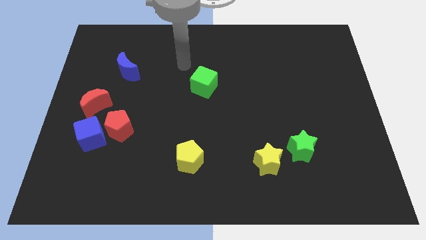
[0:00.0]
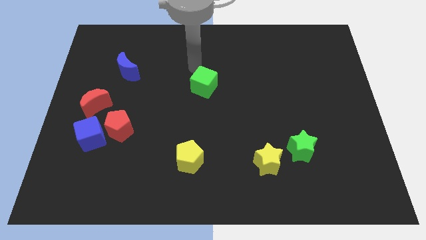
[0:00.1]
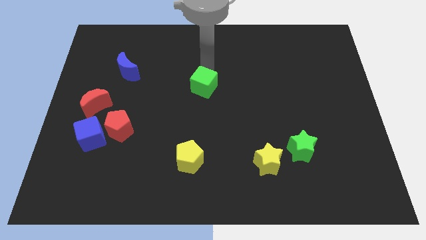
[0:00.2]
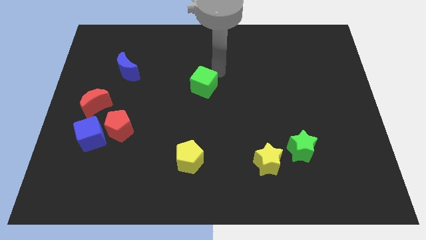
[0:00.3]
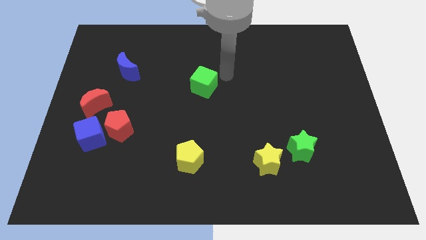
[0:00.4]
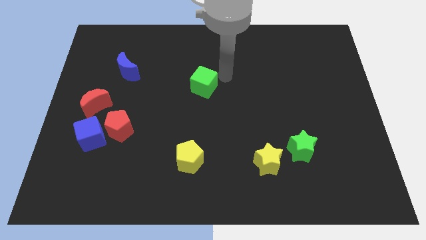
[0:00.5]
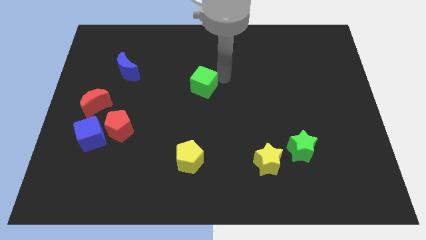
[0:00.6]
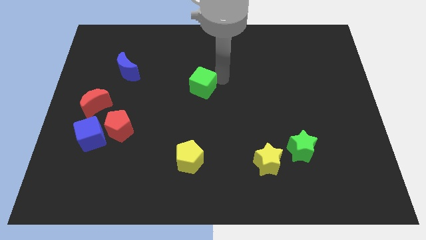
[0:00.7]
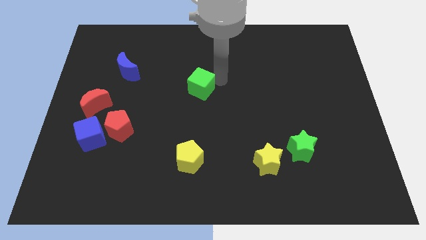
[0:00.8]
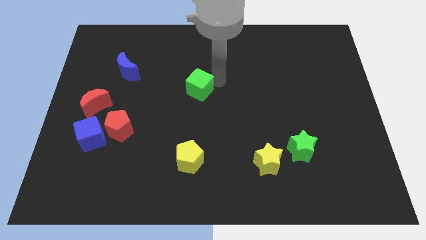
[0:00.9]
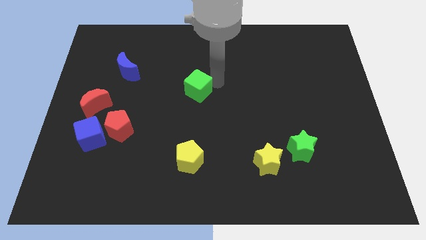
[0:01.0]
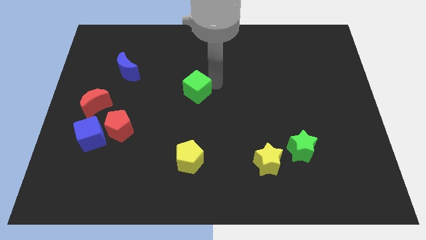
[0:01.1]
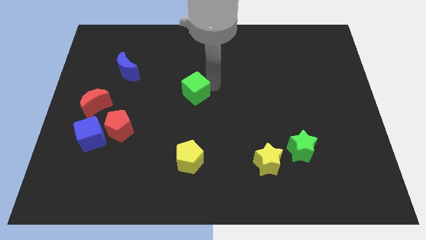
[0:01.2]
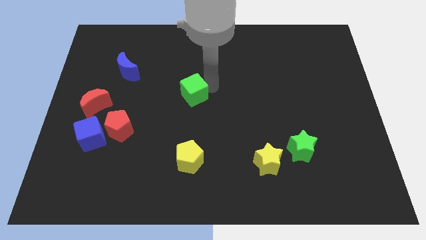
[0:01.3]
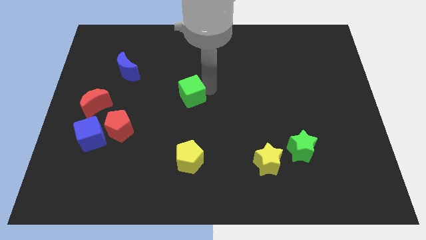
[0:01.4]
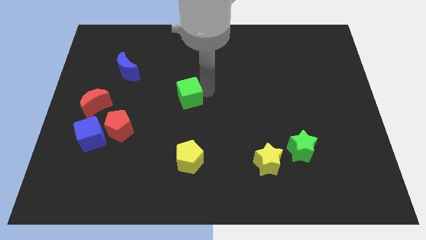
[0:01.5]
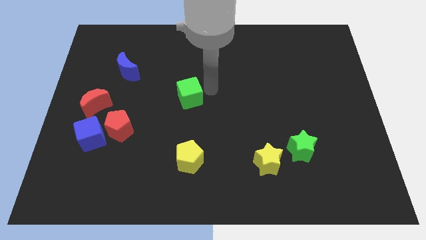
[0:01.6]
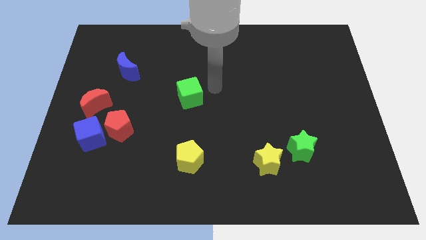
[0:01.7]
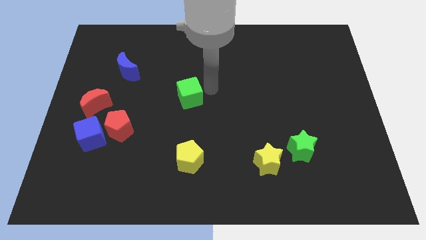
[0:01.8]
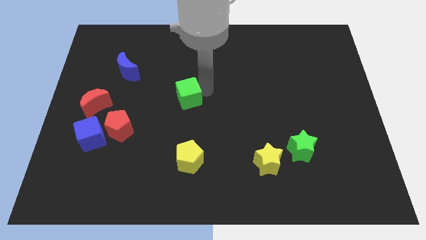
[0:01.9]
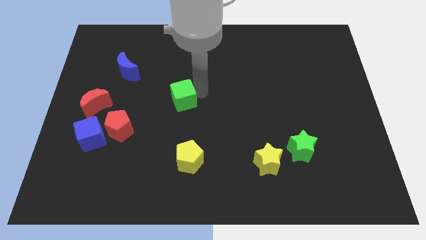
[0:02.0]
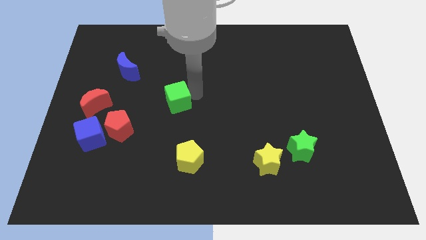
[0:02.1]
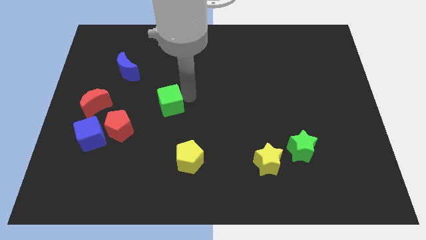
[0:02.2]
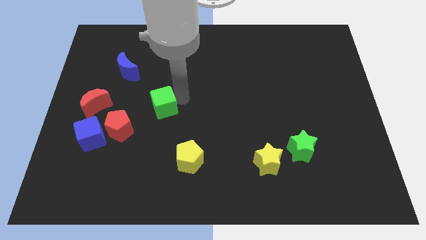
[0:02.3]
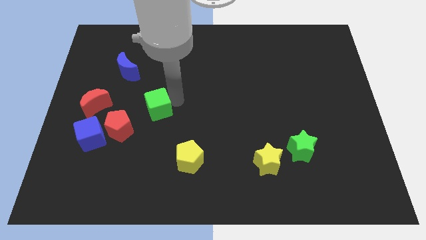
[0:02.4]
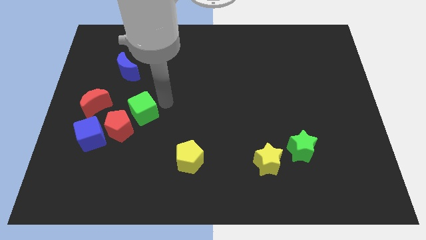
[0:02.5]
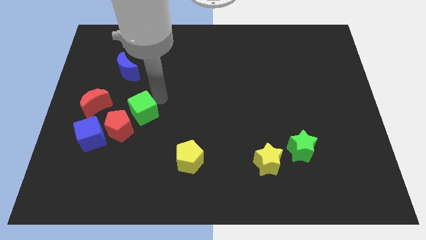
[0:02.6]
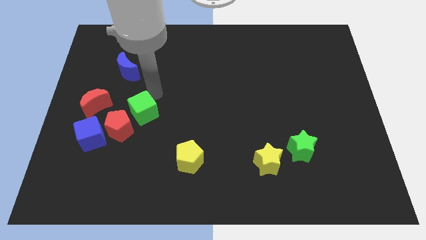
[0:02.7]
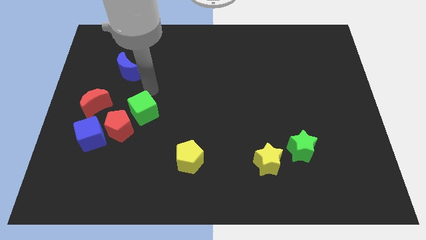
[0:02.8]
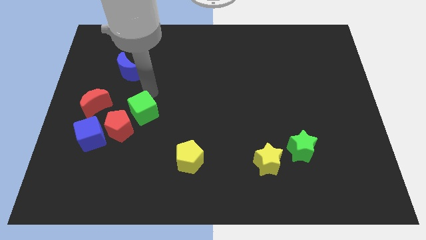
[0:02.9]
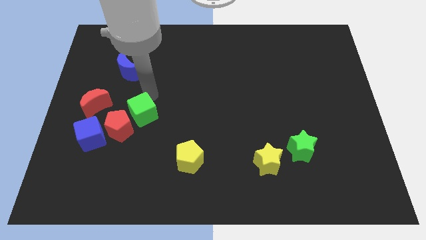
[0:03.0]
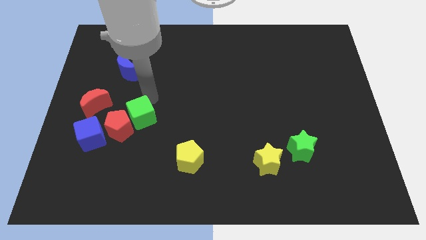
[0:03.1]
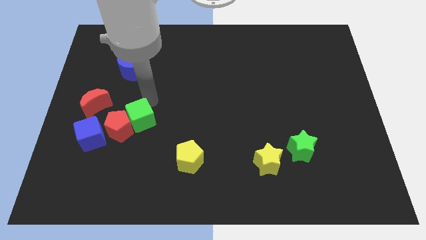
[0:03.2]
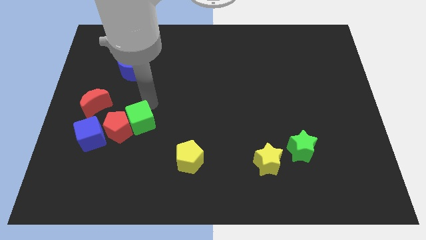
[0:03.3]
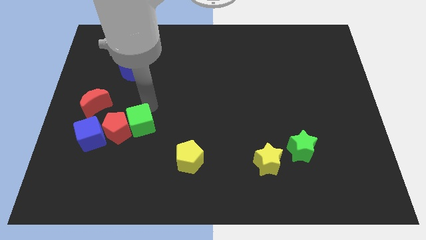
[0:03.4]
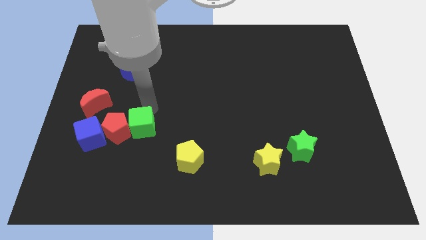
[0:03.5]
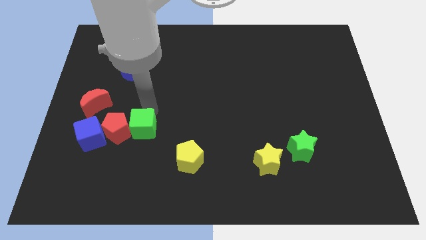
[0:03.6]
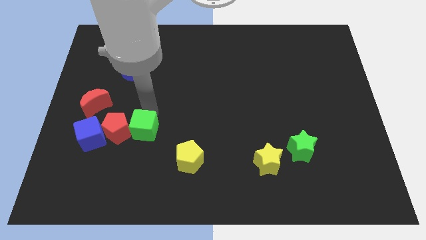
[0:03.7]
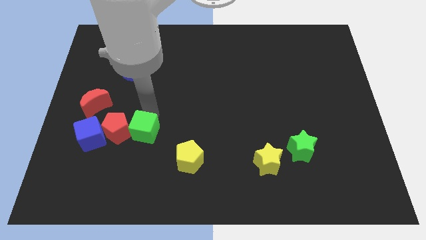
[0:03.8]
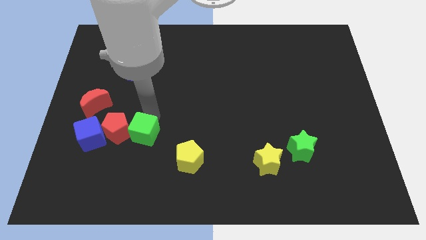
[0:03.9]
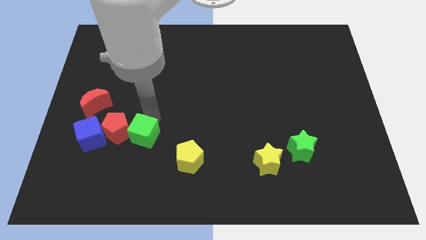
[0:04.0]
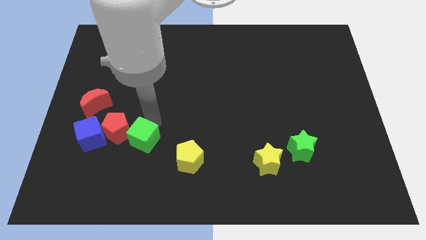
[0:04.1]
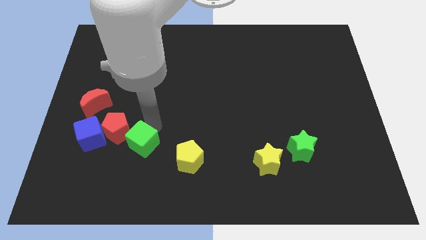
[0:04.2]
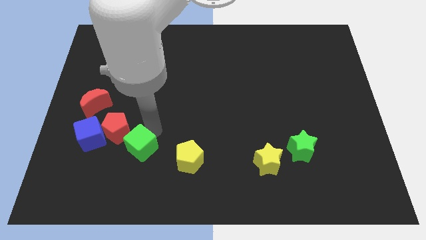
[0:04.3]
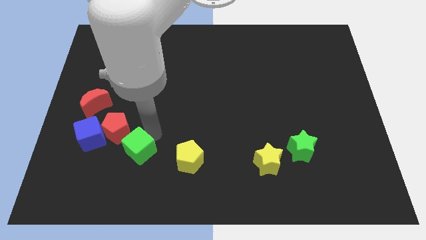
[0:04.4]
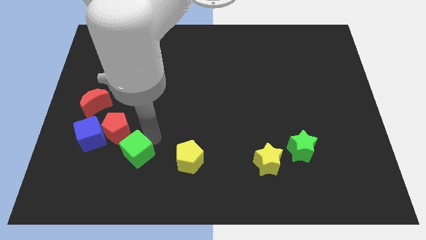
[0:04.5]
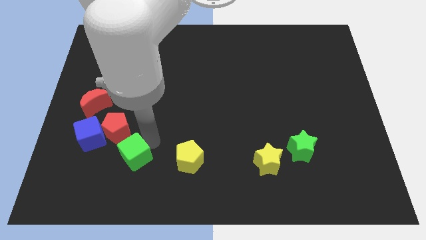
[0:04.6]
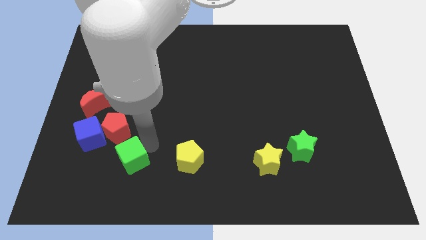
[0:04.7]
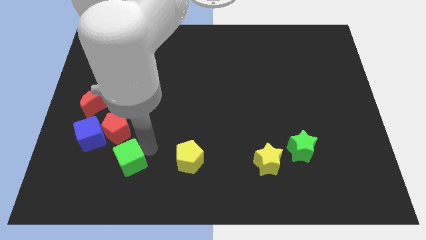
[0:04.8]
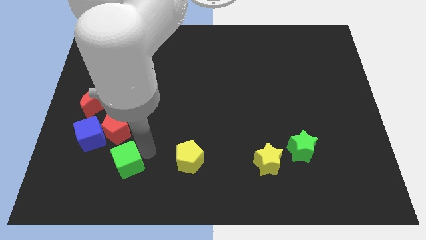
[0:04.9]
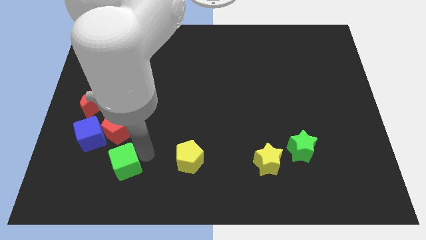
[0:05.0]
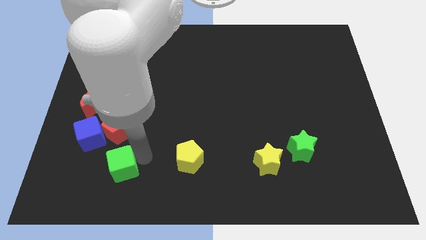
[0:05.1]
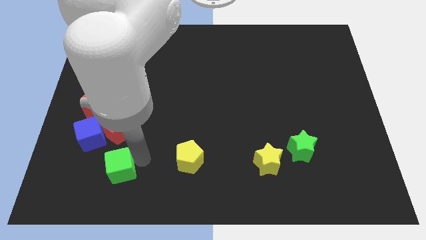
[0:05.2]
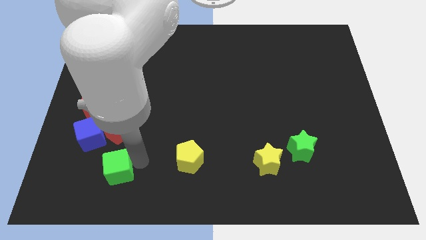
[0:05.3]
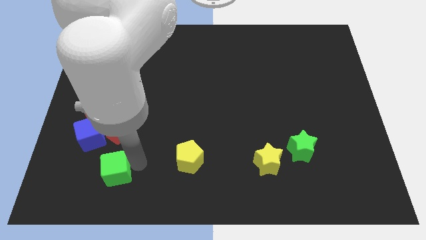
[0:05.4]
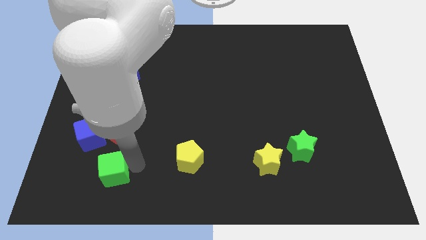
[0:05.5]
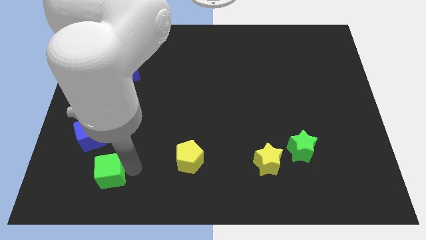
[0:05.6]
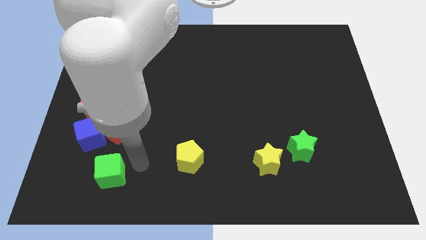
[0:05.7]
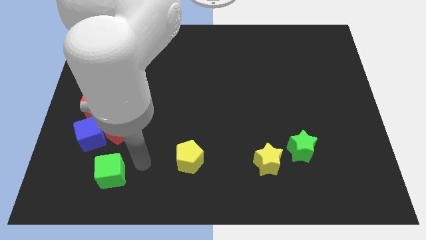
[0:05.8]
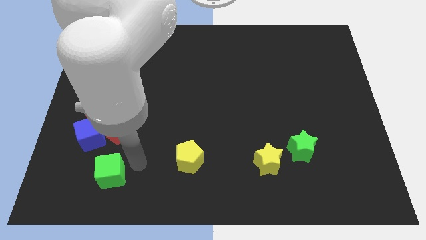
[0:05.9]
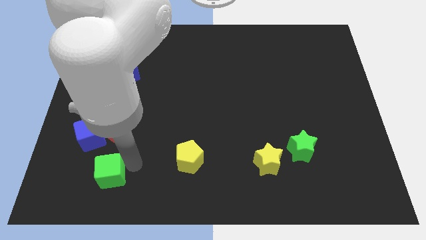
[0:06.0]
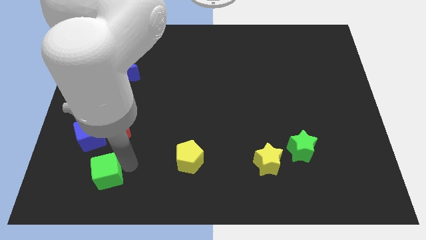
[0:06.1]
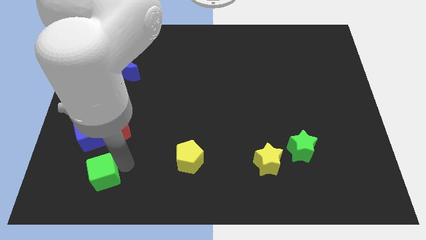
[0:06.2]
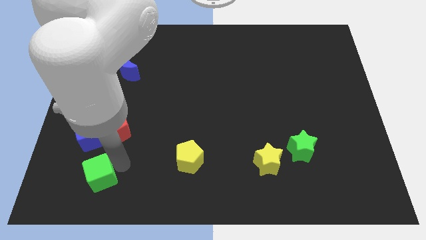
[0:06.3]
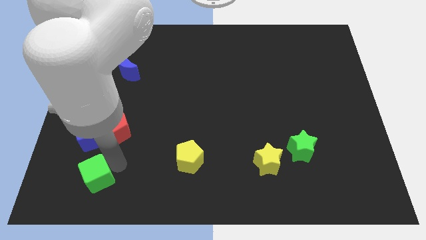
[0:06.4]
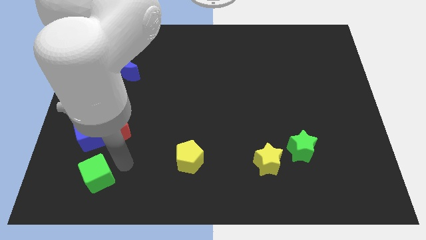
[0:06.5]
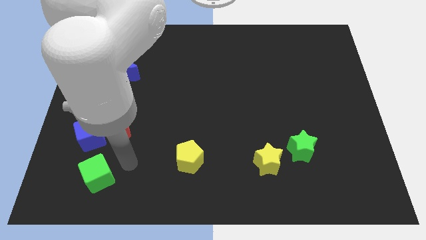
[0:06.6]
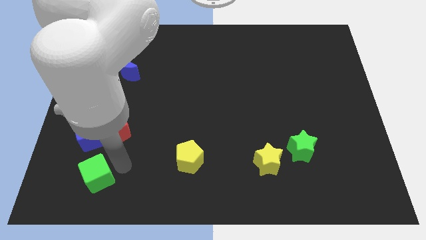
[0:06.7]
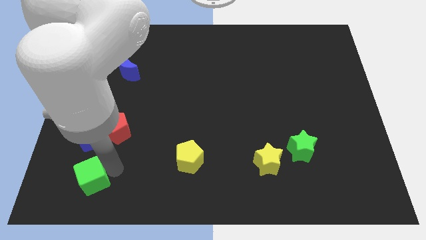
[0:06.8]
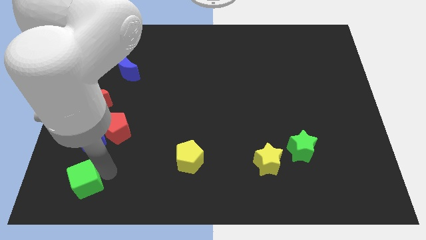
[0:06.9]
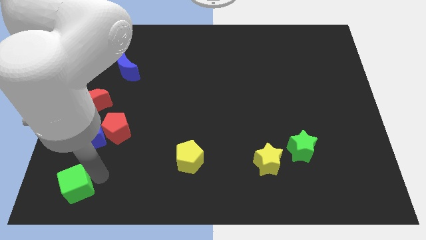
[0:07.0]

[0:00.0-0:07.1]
put the green cube to the lower left corner
